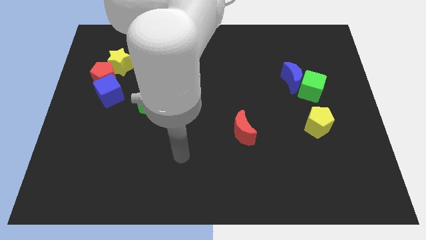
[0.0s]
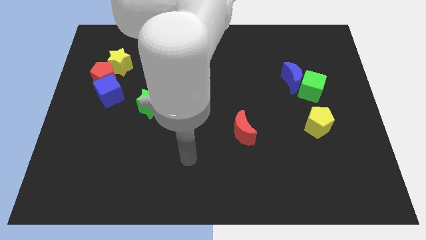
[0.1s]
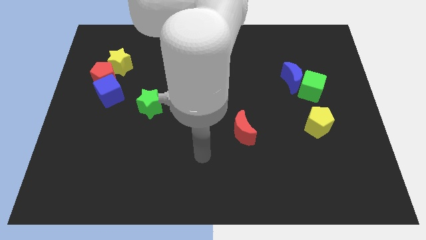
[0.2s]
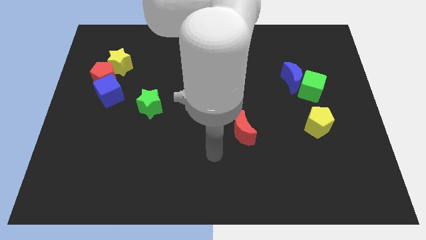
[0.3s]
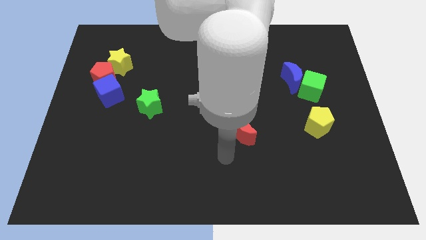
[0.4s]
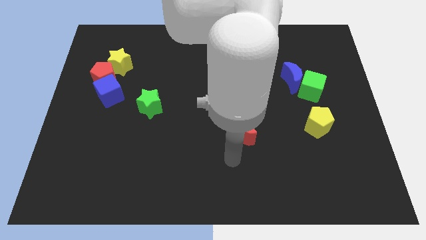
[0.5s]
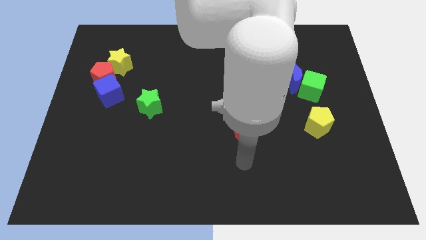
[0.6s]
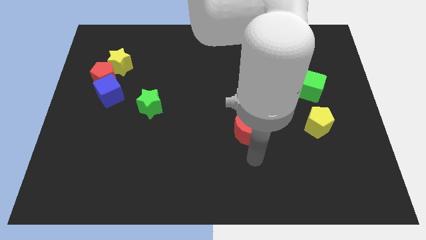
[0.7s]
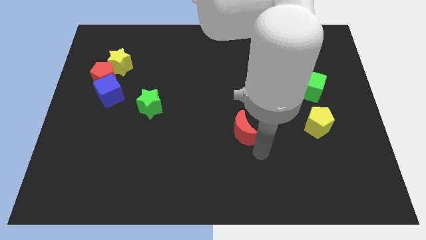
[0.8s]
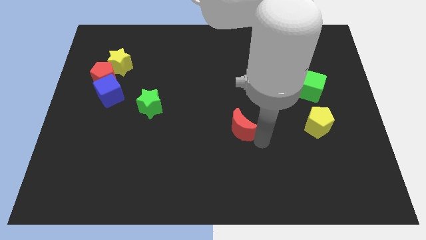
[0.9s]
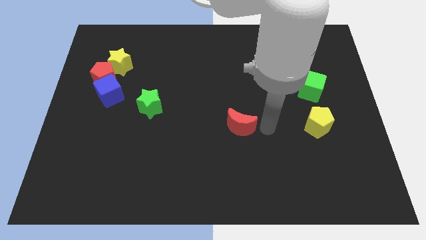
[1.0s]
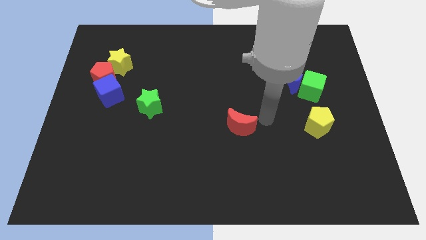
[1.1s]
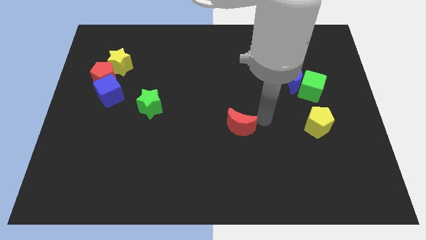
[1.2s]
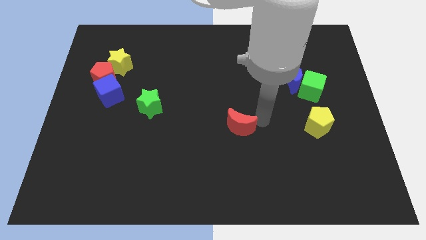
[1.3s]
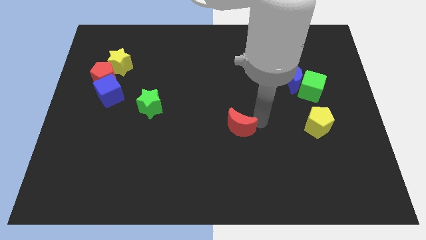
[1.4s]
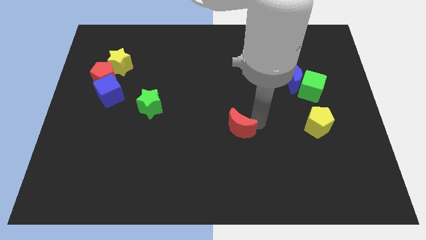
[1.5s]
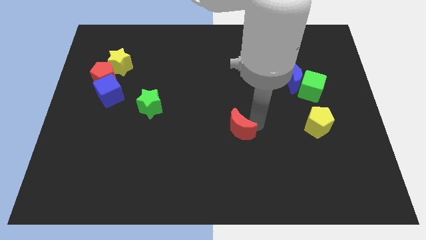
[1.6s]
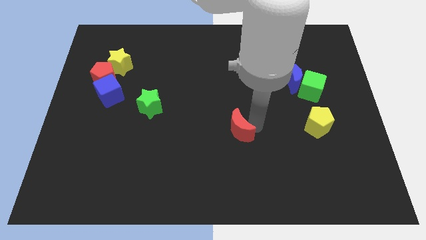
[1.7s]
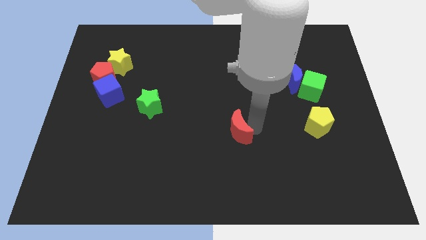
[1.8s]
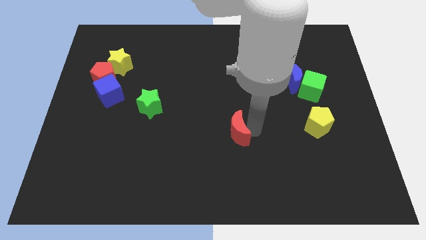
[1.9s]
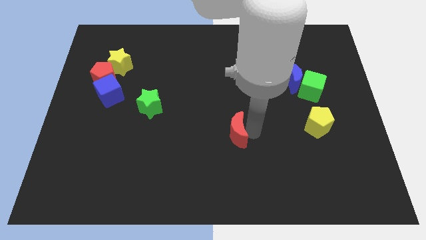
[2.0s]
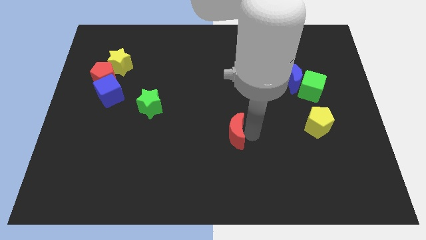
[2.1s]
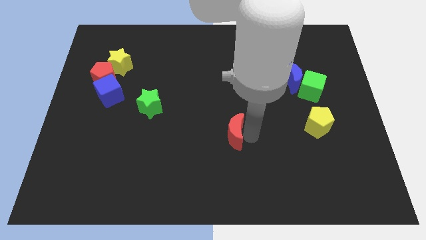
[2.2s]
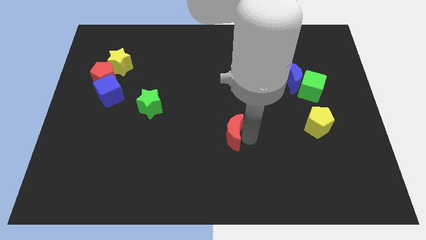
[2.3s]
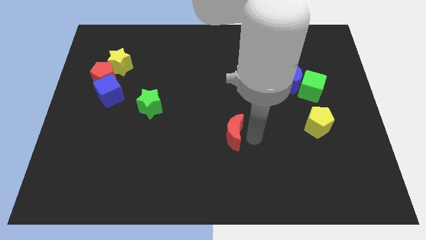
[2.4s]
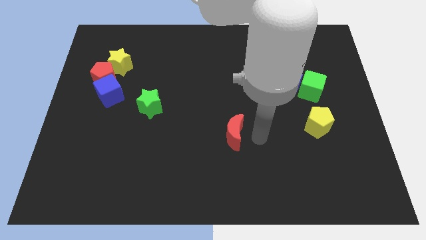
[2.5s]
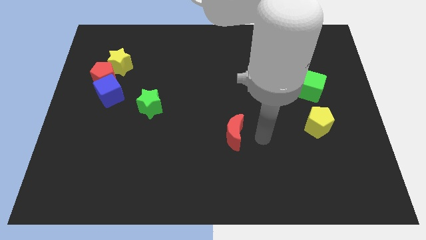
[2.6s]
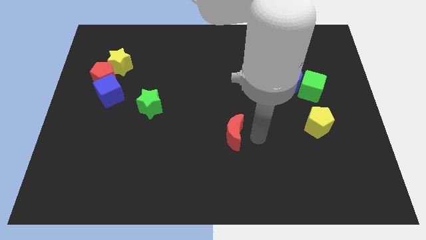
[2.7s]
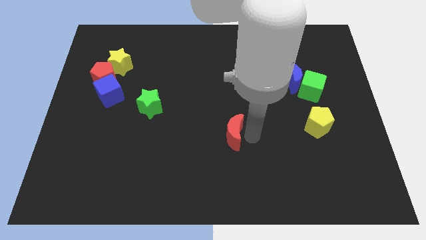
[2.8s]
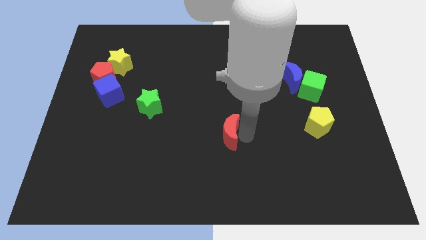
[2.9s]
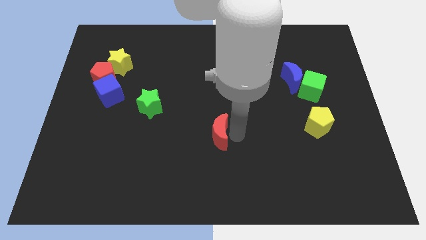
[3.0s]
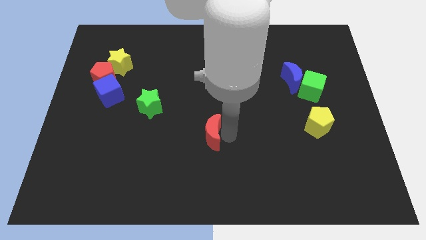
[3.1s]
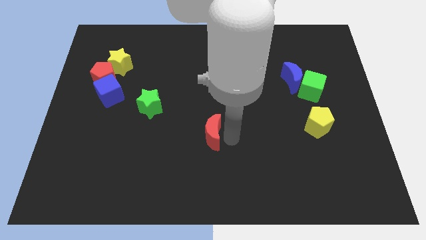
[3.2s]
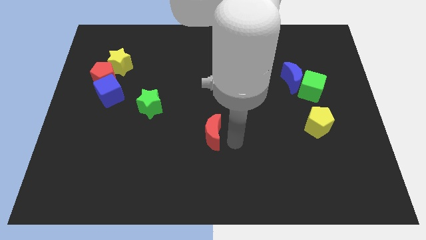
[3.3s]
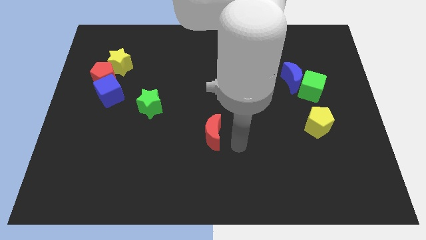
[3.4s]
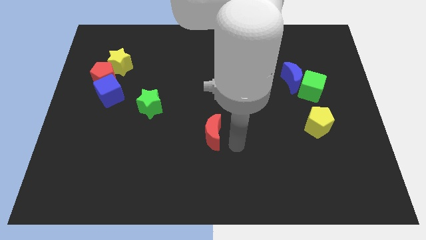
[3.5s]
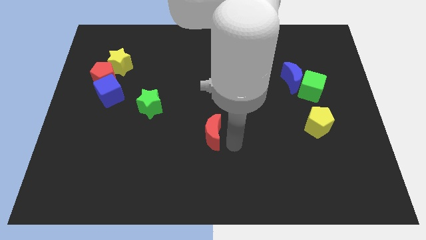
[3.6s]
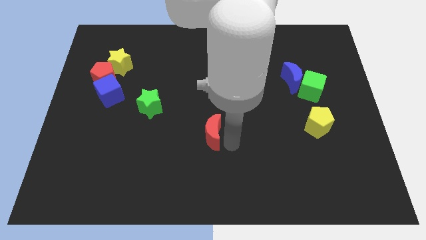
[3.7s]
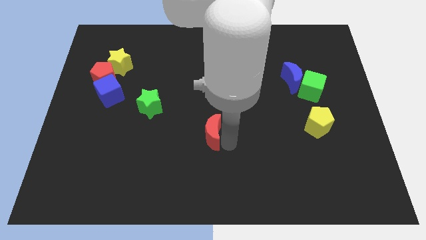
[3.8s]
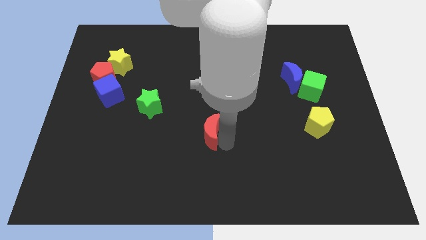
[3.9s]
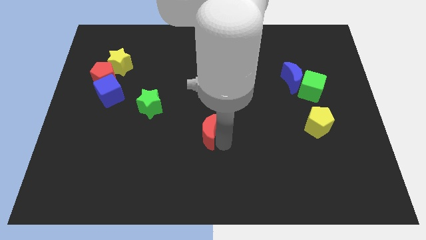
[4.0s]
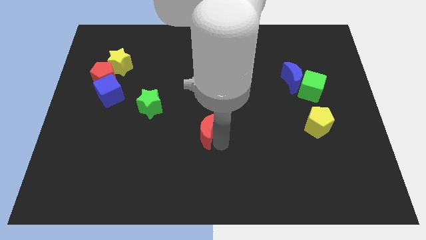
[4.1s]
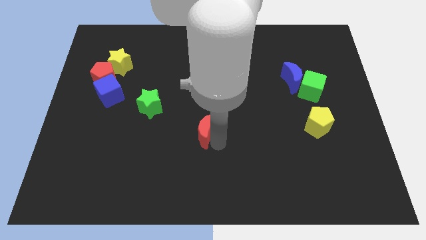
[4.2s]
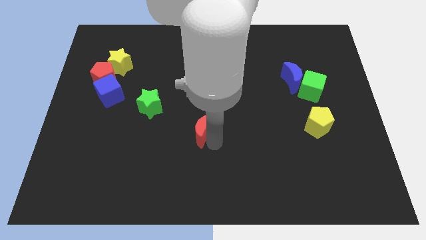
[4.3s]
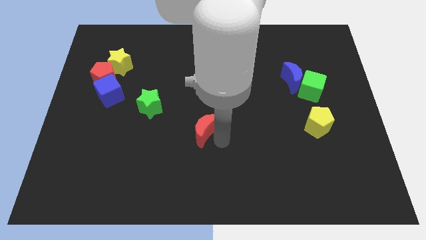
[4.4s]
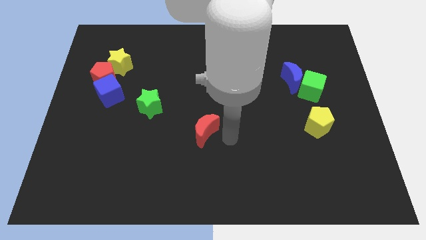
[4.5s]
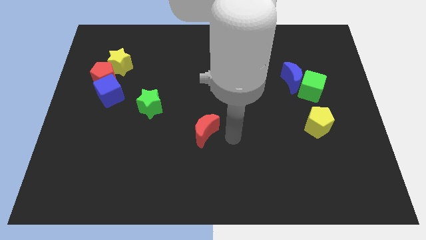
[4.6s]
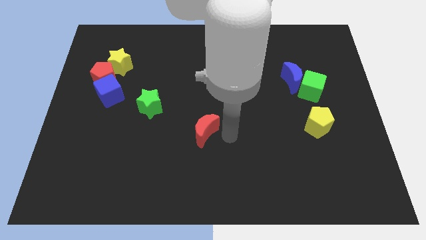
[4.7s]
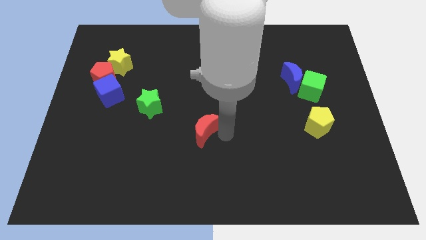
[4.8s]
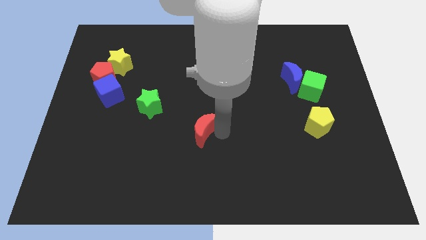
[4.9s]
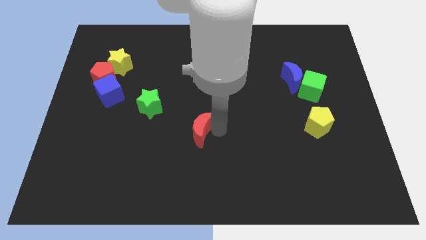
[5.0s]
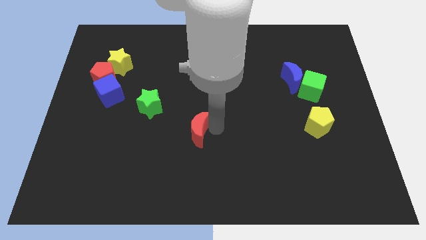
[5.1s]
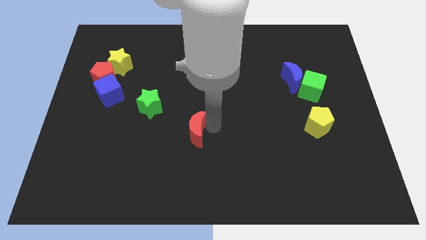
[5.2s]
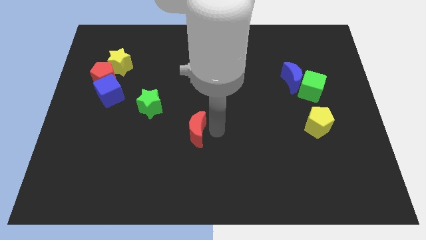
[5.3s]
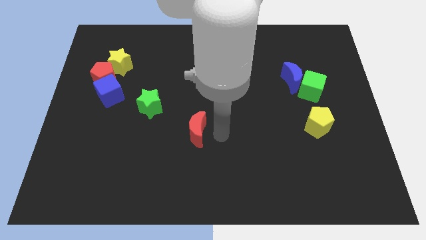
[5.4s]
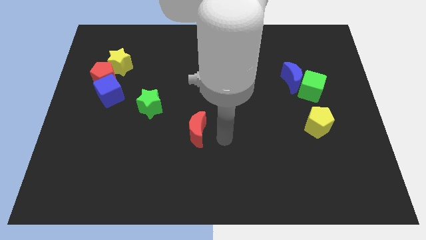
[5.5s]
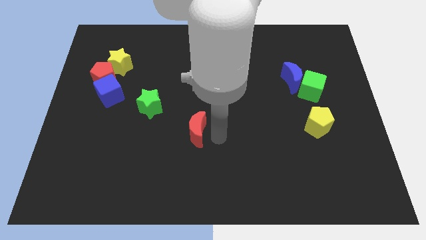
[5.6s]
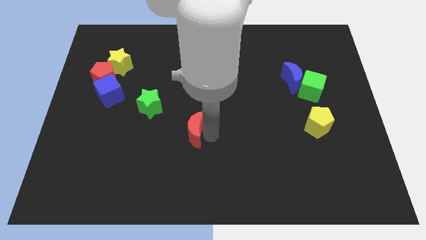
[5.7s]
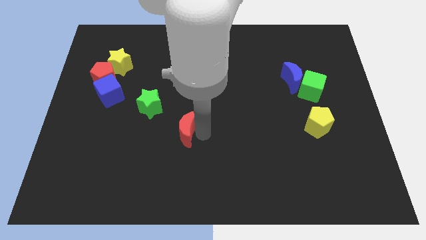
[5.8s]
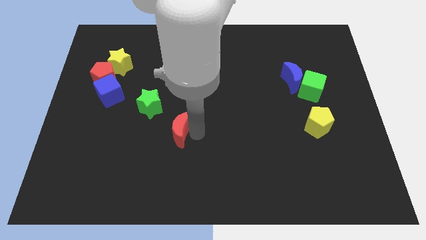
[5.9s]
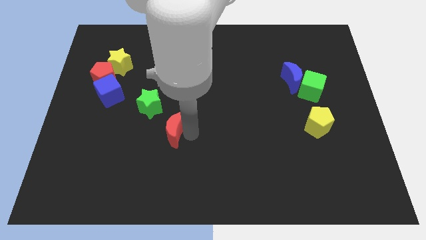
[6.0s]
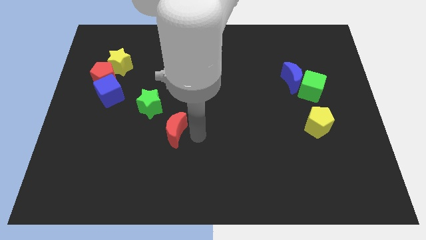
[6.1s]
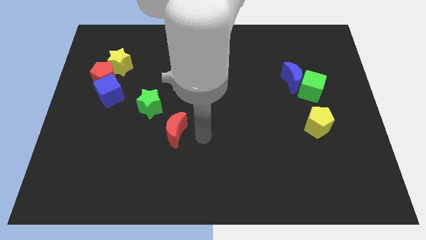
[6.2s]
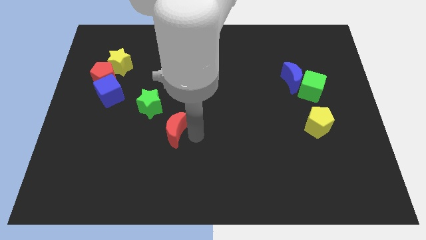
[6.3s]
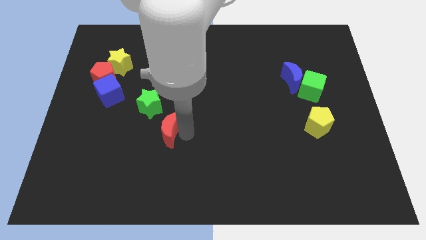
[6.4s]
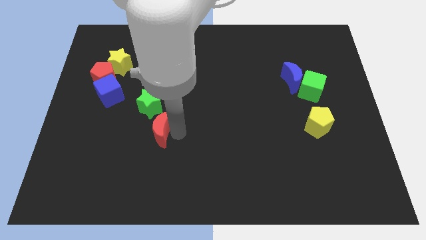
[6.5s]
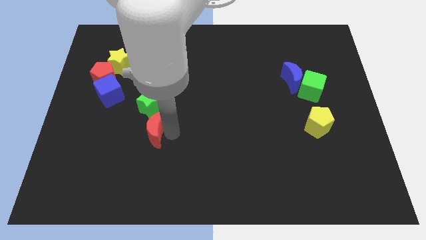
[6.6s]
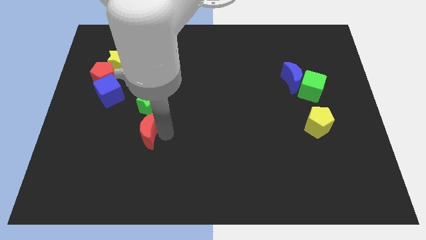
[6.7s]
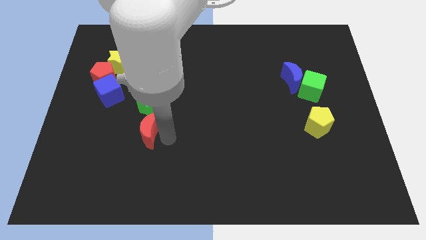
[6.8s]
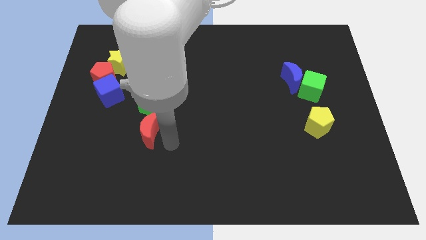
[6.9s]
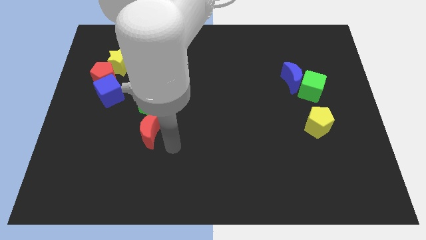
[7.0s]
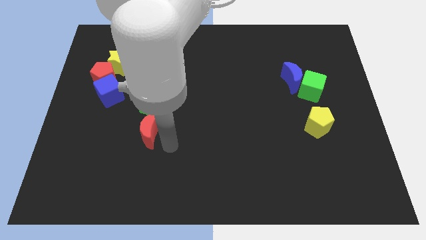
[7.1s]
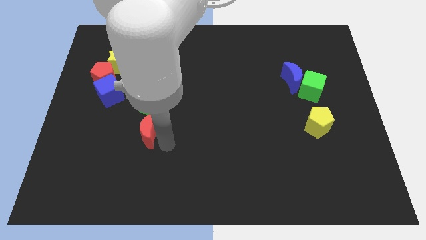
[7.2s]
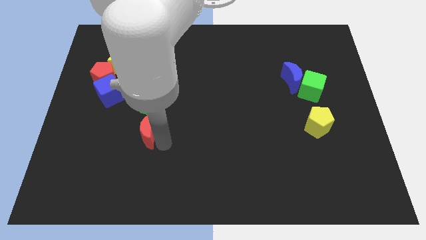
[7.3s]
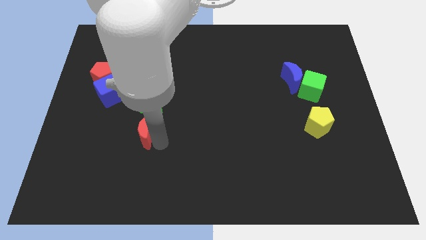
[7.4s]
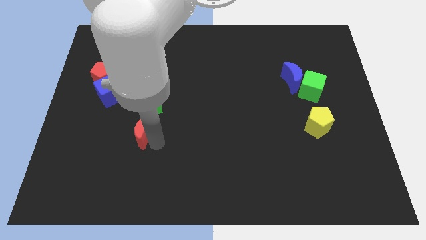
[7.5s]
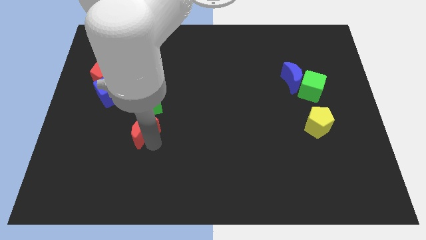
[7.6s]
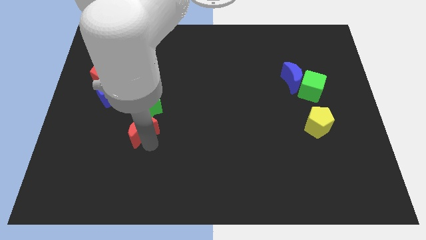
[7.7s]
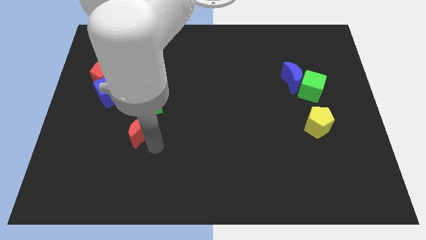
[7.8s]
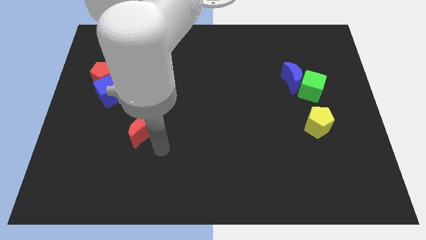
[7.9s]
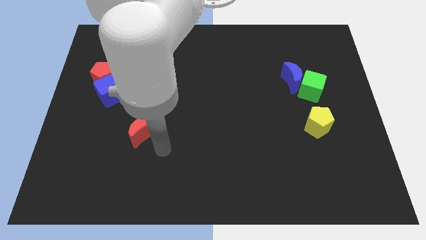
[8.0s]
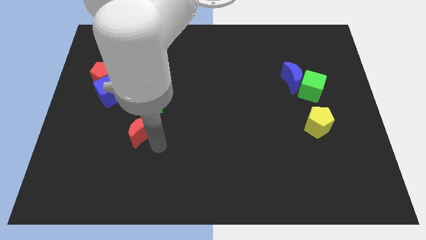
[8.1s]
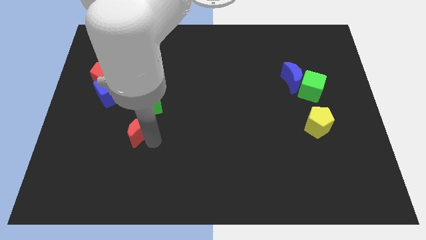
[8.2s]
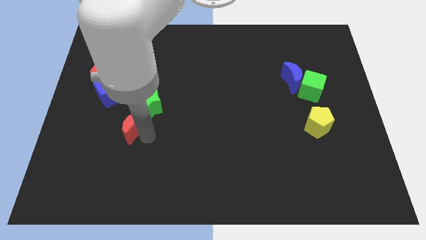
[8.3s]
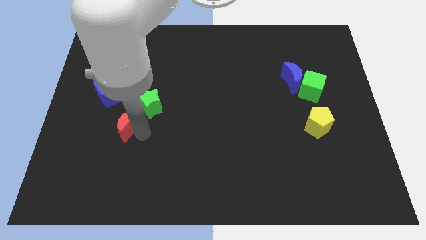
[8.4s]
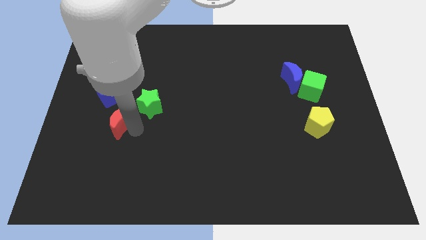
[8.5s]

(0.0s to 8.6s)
put the red moon to the left of the green star
